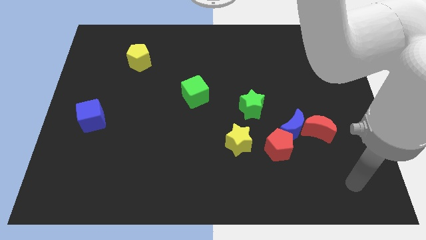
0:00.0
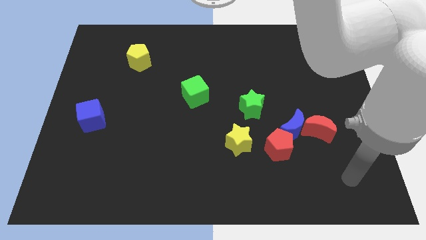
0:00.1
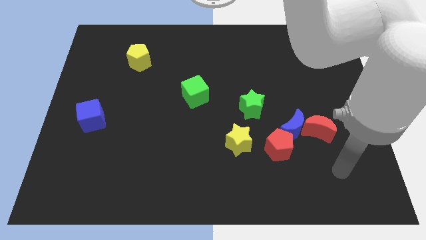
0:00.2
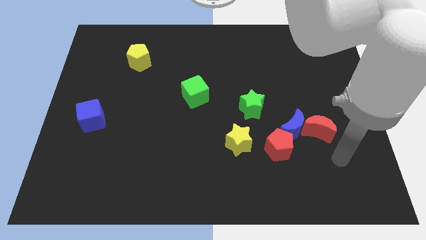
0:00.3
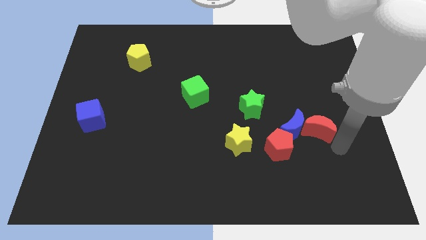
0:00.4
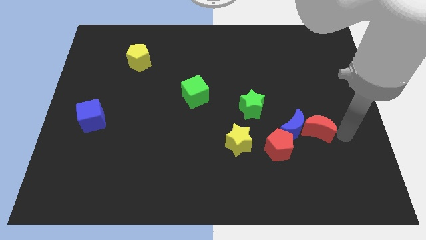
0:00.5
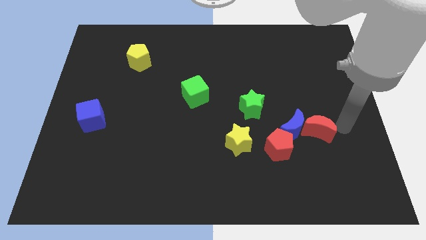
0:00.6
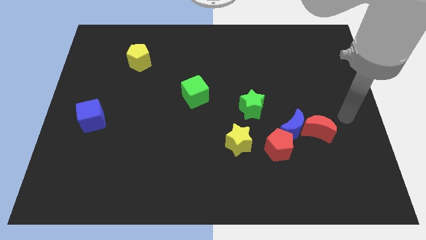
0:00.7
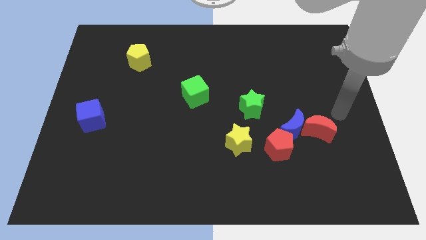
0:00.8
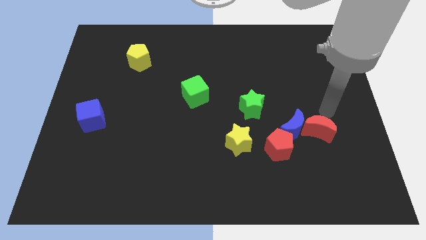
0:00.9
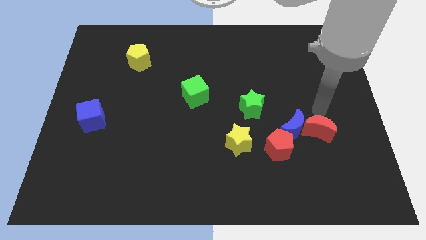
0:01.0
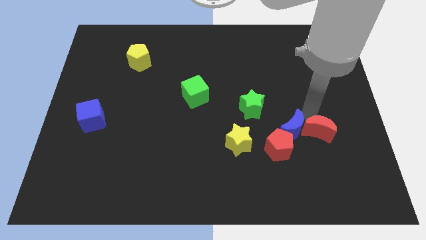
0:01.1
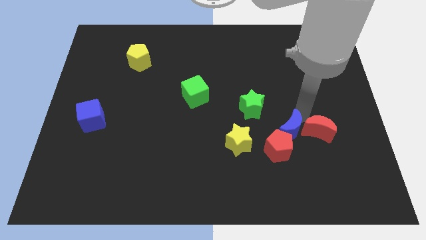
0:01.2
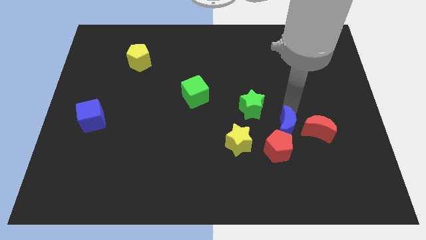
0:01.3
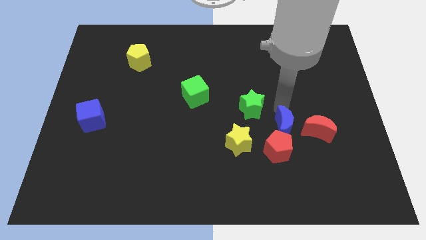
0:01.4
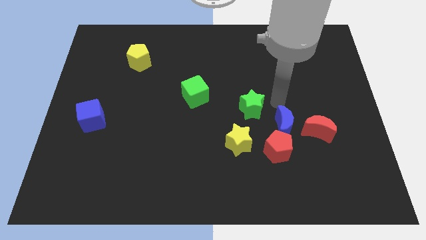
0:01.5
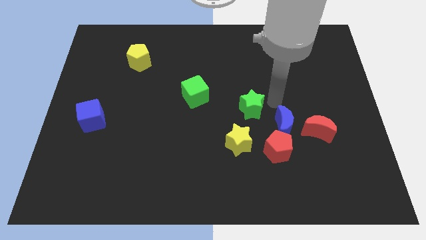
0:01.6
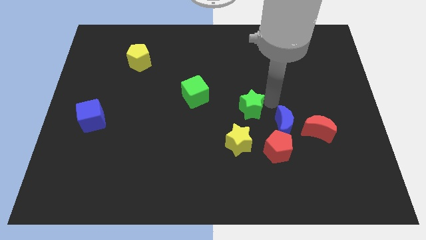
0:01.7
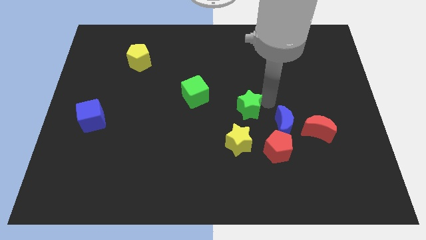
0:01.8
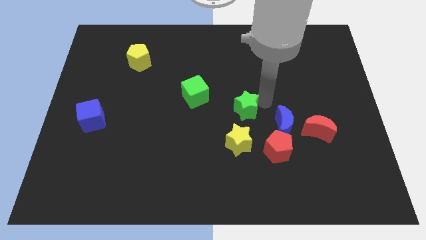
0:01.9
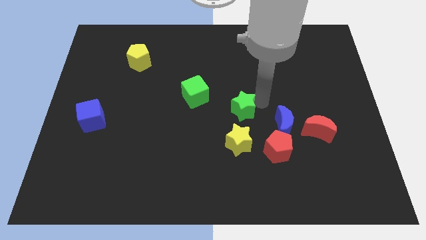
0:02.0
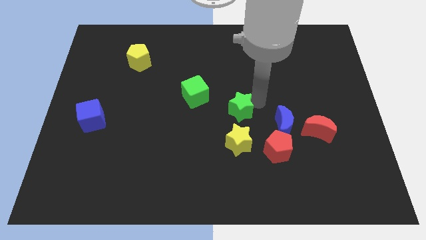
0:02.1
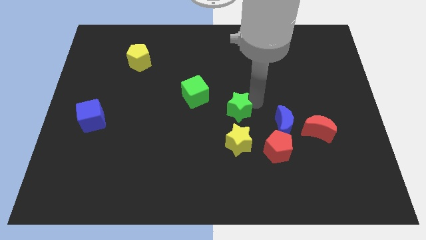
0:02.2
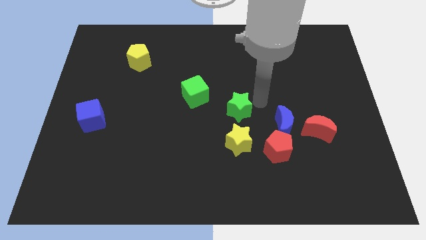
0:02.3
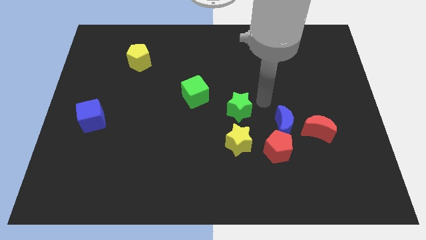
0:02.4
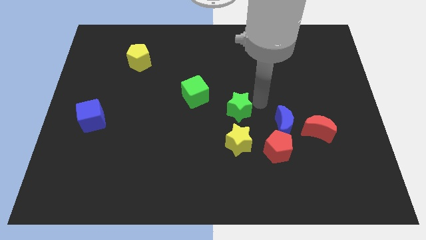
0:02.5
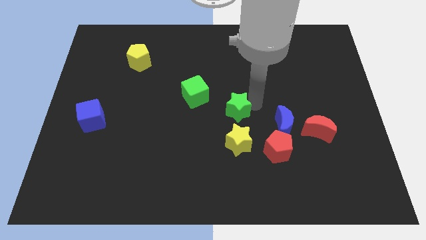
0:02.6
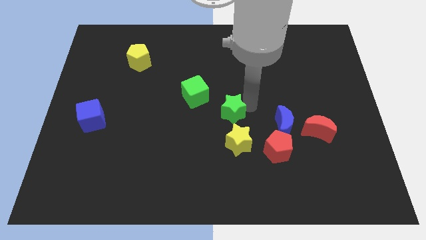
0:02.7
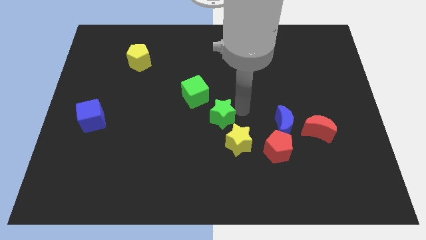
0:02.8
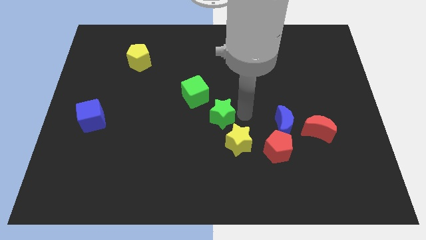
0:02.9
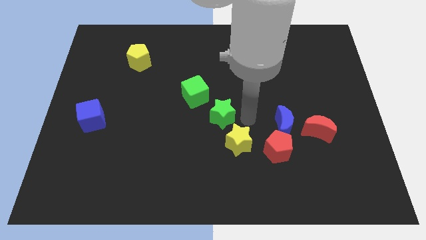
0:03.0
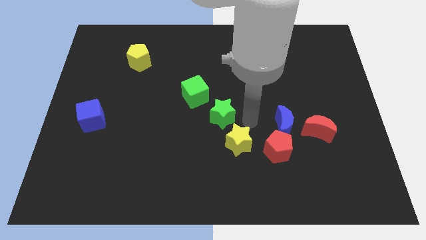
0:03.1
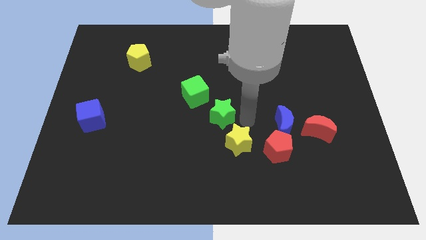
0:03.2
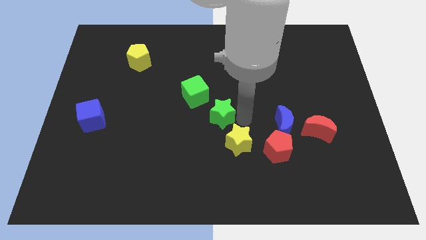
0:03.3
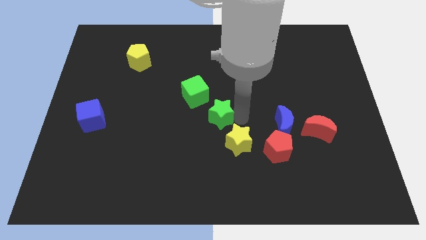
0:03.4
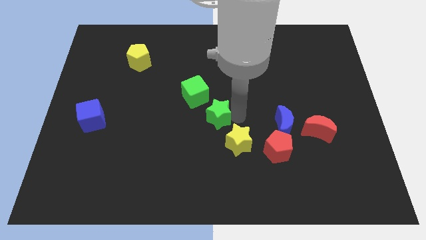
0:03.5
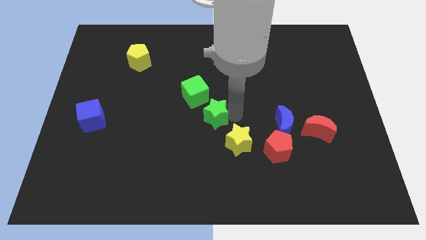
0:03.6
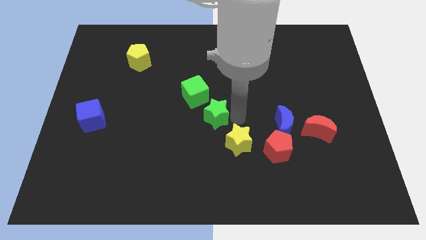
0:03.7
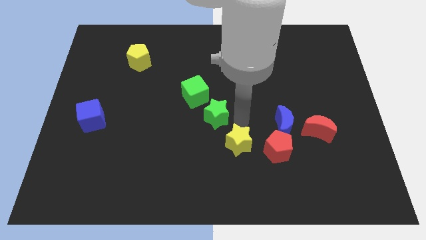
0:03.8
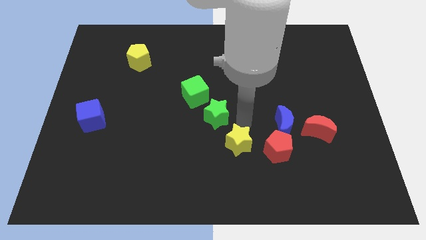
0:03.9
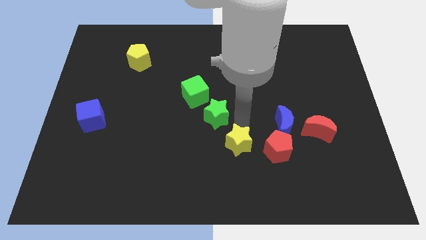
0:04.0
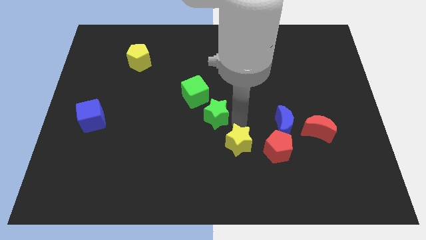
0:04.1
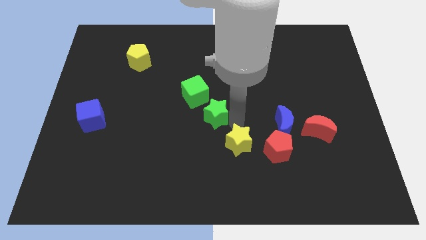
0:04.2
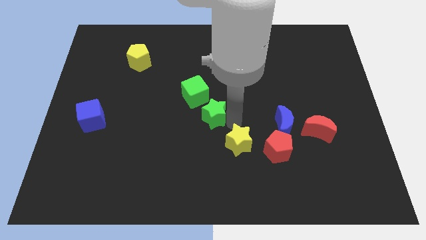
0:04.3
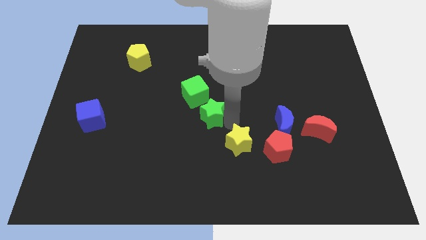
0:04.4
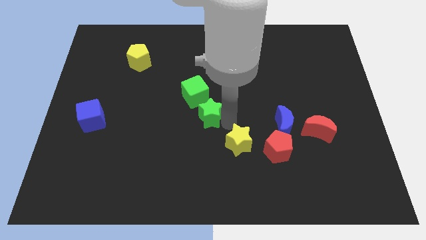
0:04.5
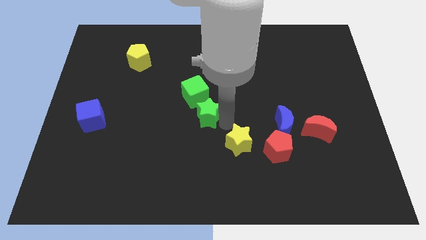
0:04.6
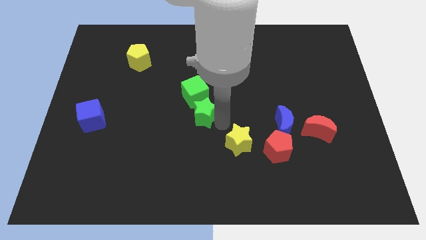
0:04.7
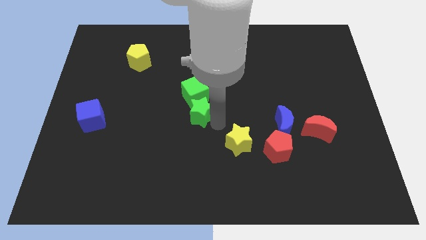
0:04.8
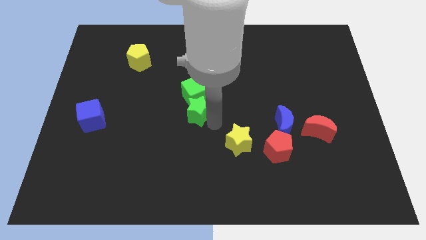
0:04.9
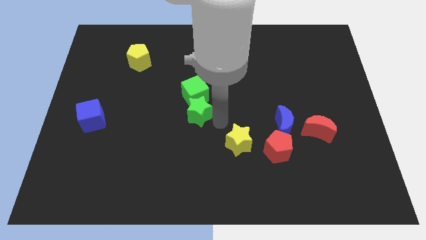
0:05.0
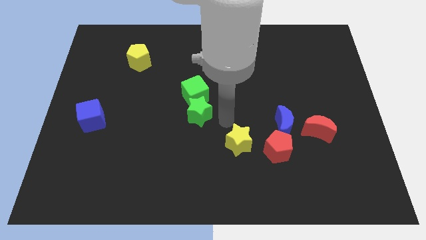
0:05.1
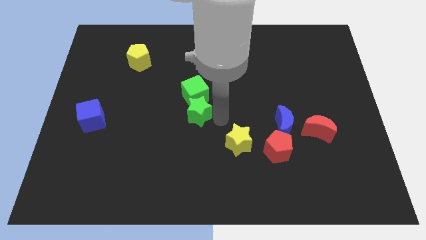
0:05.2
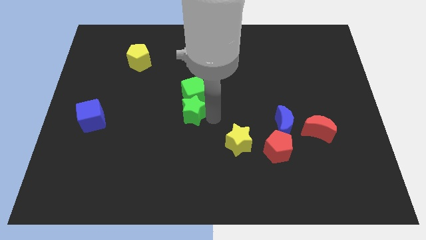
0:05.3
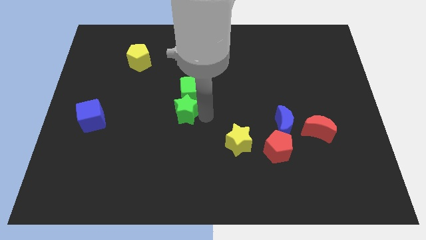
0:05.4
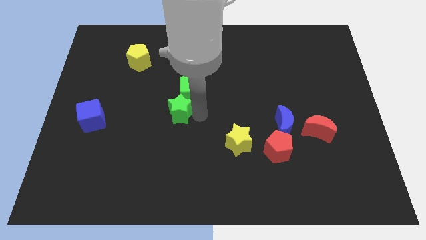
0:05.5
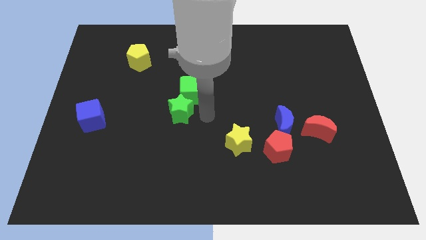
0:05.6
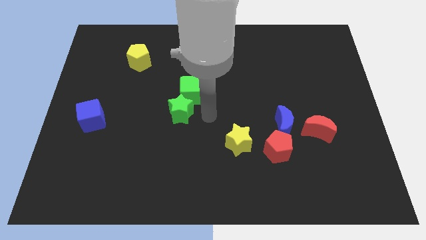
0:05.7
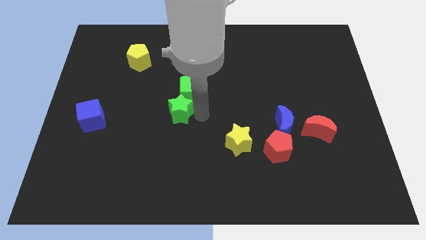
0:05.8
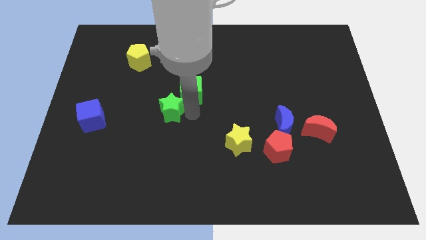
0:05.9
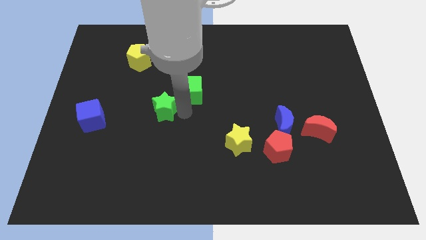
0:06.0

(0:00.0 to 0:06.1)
slide the green star left

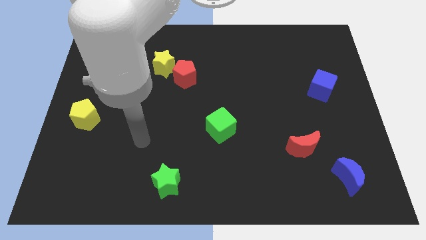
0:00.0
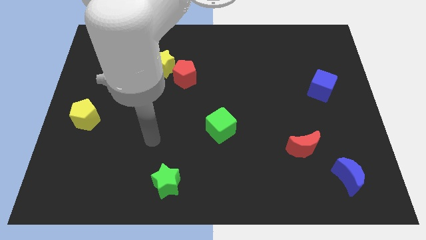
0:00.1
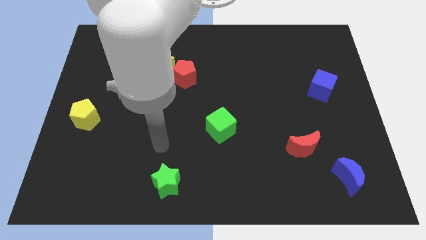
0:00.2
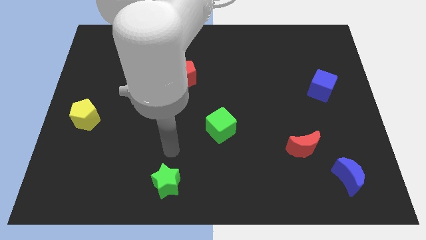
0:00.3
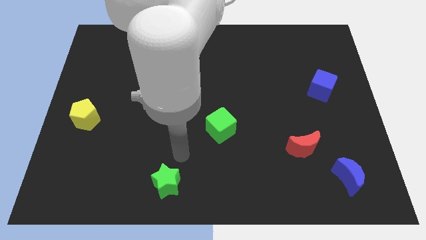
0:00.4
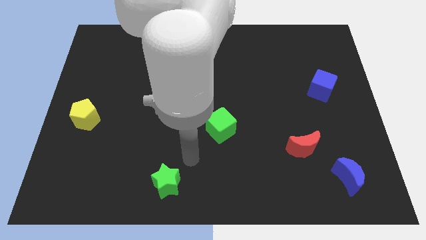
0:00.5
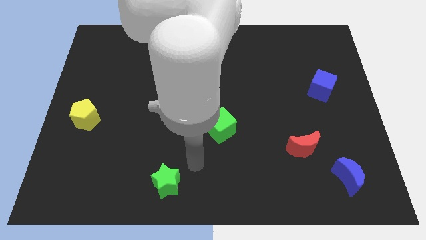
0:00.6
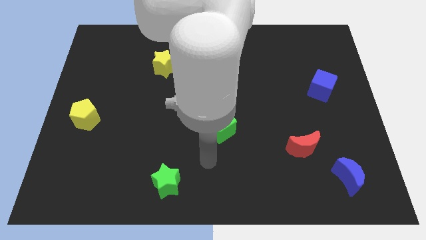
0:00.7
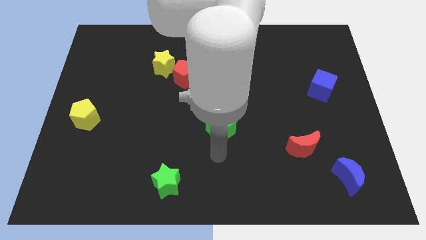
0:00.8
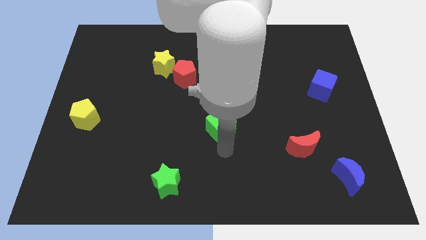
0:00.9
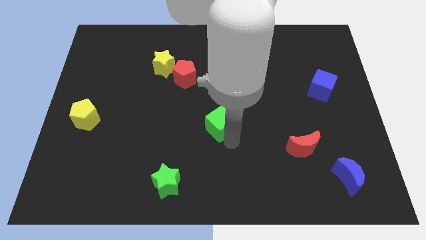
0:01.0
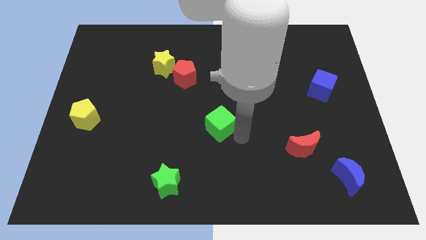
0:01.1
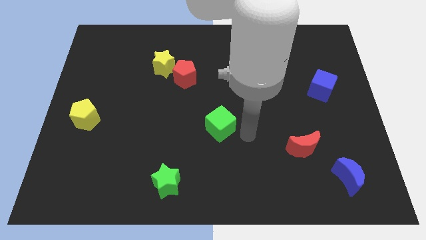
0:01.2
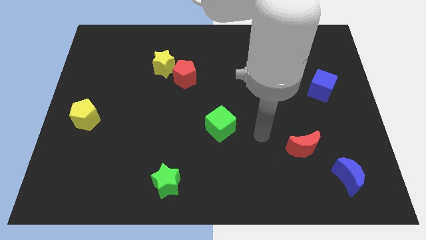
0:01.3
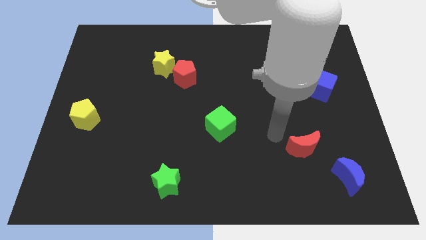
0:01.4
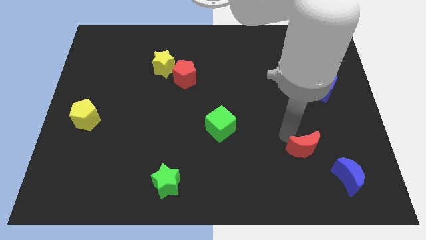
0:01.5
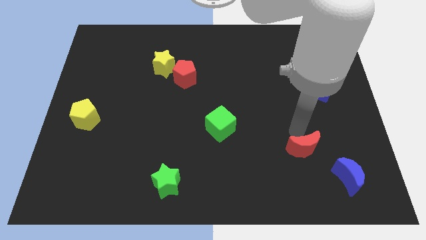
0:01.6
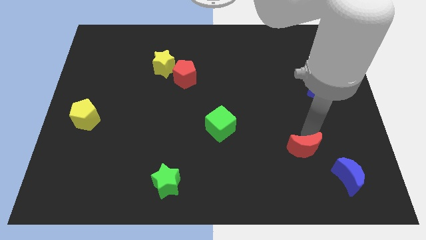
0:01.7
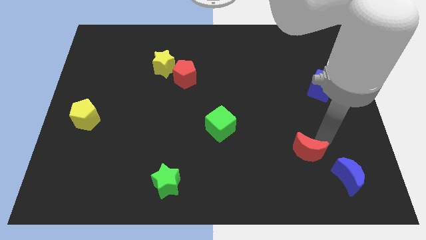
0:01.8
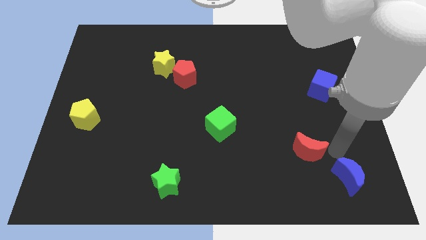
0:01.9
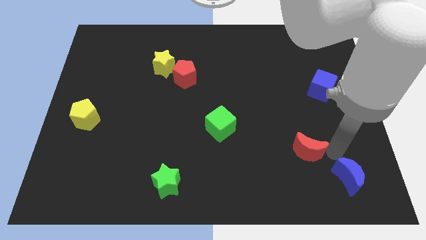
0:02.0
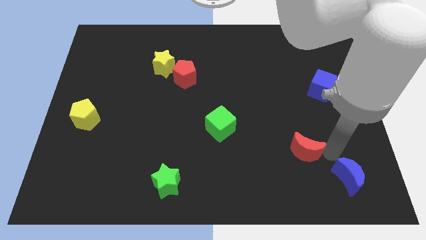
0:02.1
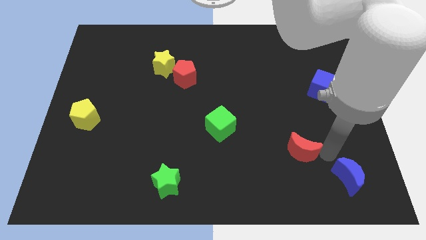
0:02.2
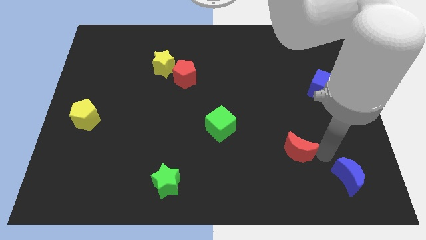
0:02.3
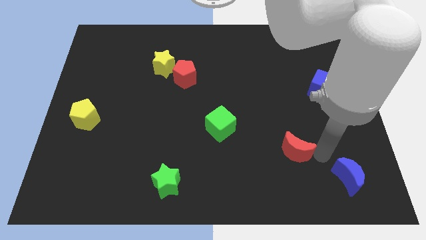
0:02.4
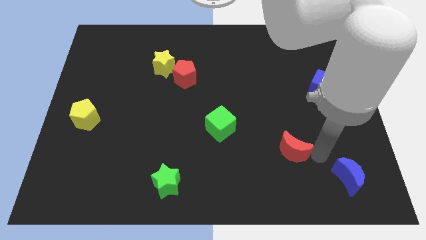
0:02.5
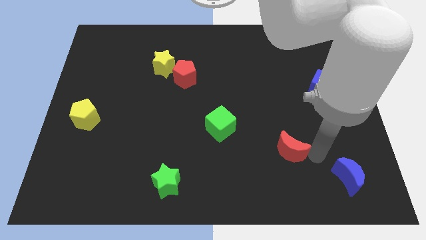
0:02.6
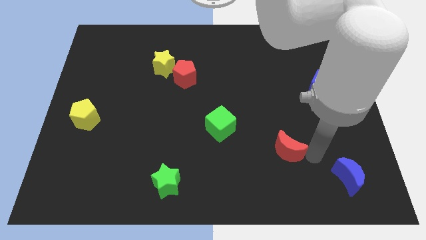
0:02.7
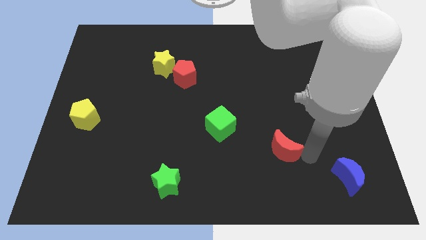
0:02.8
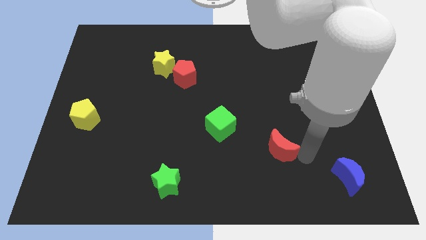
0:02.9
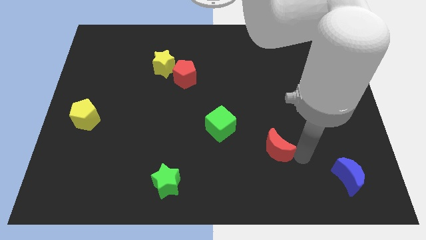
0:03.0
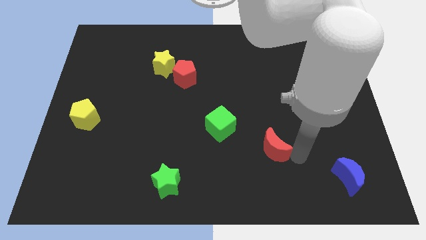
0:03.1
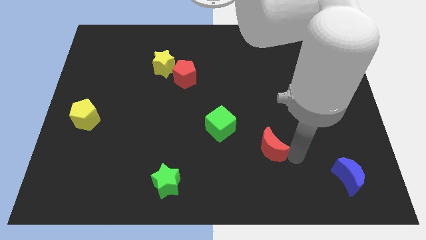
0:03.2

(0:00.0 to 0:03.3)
slightly slide the red moon to the left
